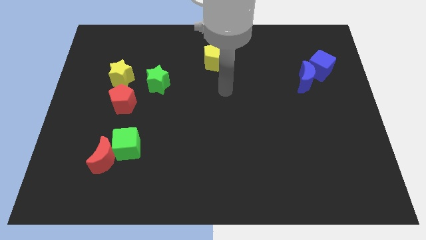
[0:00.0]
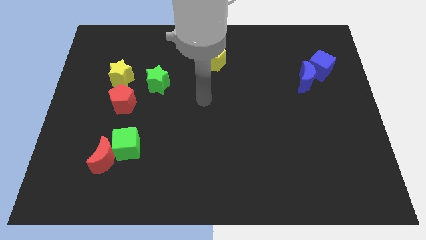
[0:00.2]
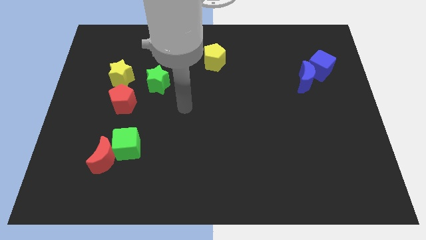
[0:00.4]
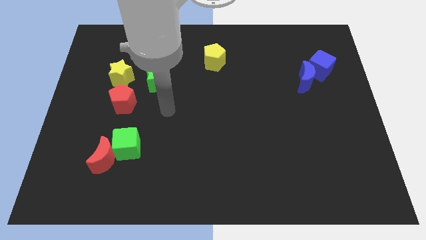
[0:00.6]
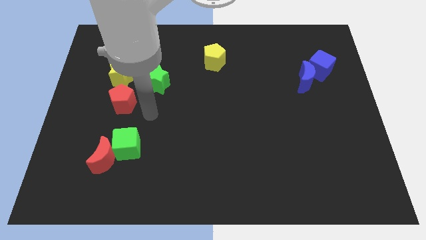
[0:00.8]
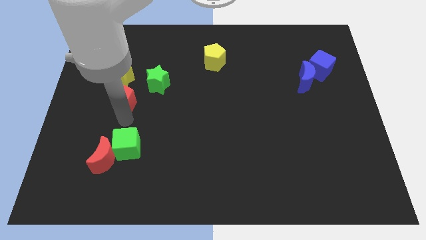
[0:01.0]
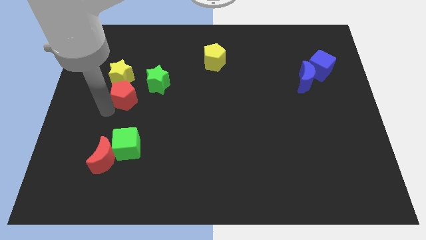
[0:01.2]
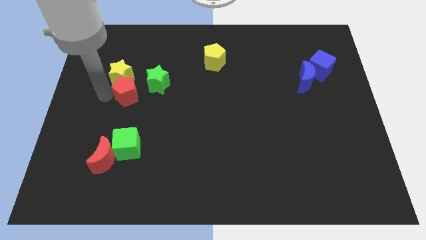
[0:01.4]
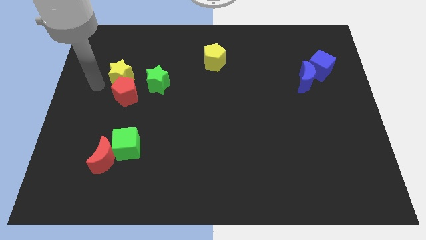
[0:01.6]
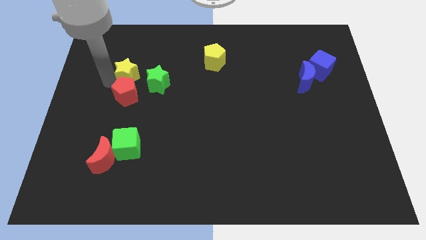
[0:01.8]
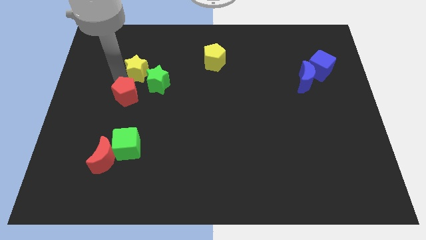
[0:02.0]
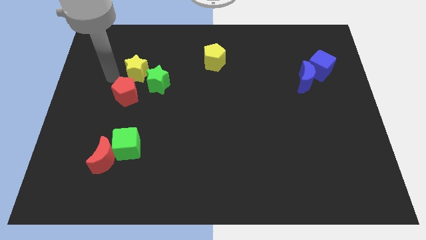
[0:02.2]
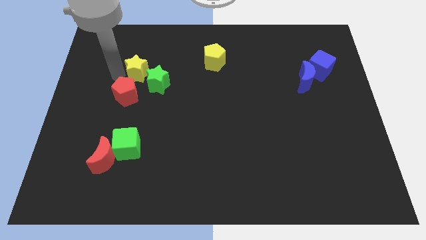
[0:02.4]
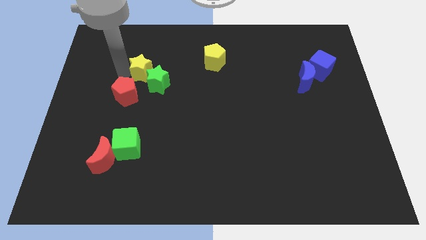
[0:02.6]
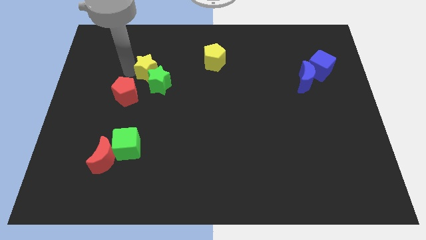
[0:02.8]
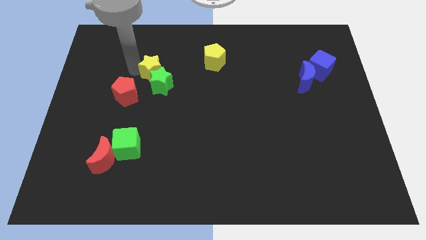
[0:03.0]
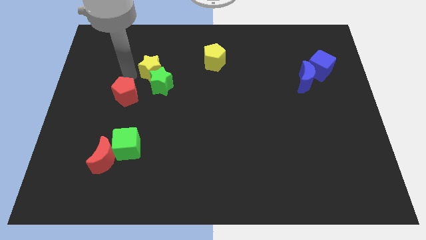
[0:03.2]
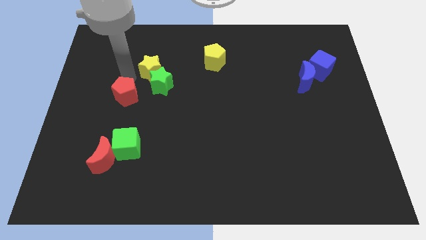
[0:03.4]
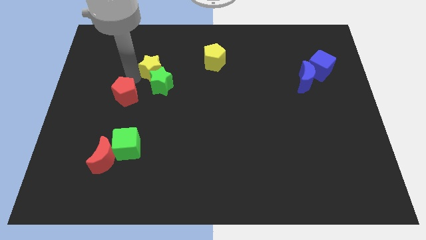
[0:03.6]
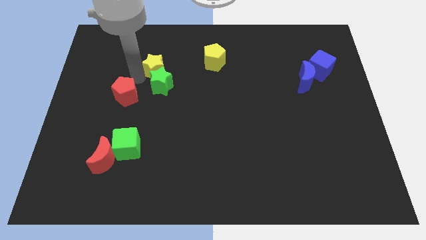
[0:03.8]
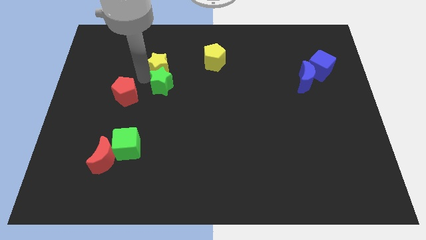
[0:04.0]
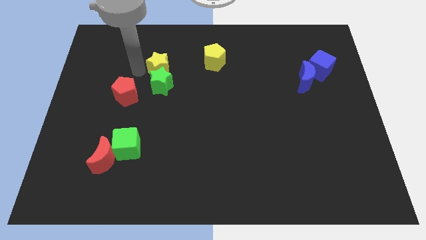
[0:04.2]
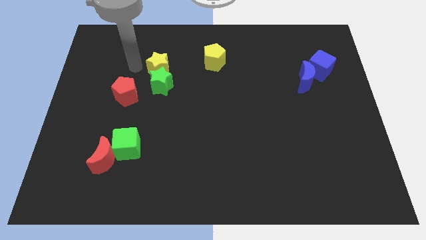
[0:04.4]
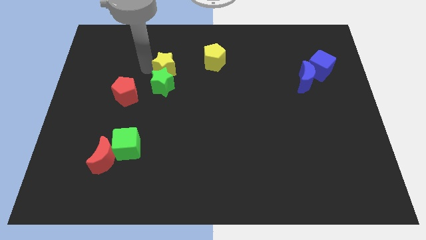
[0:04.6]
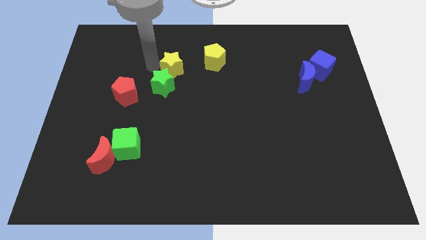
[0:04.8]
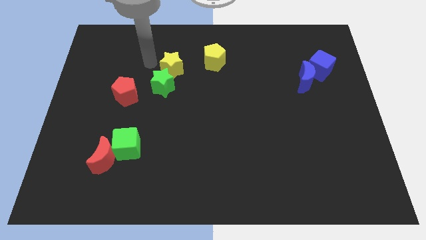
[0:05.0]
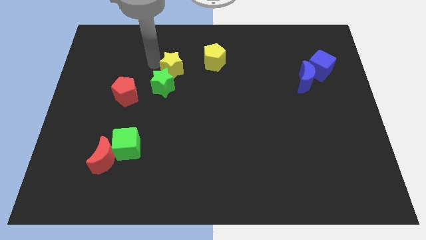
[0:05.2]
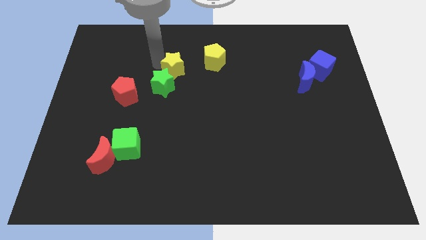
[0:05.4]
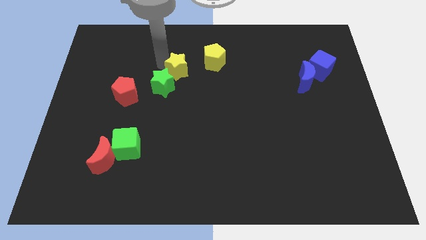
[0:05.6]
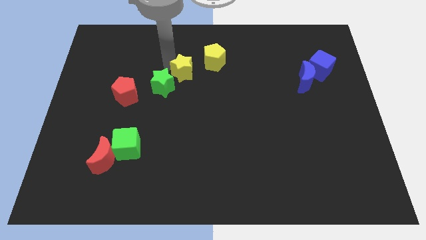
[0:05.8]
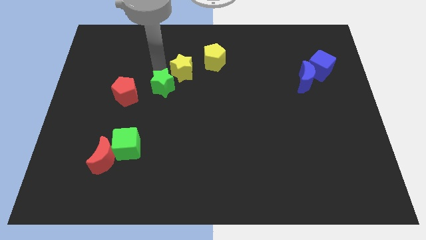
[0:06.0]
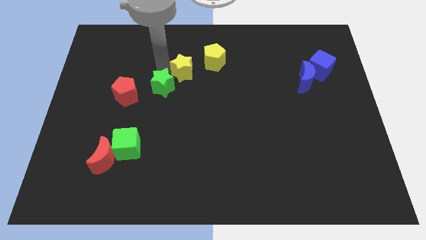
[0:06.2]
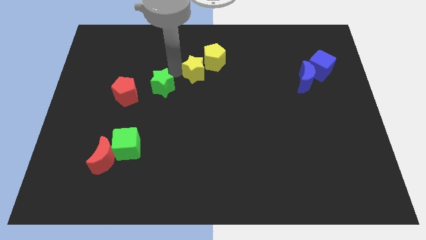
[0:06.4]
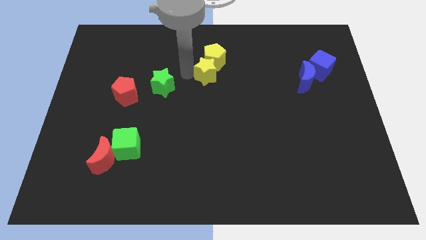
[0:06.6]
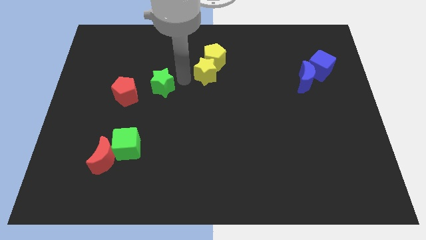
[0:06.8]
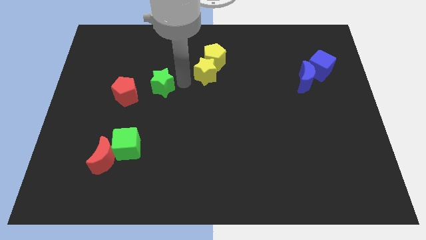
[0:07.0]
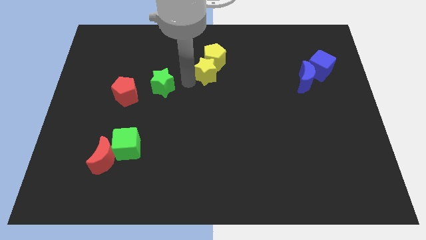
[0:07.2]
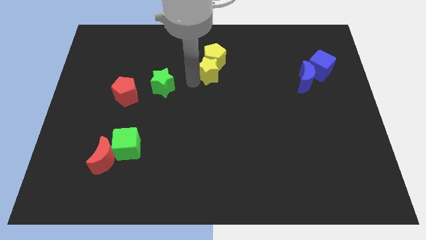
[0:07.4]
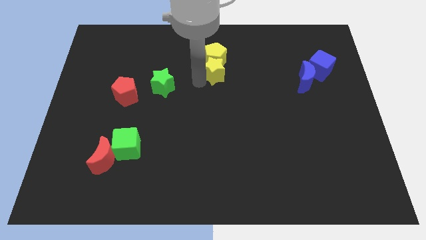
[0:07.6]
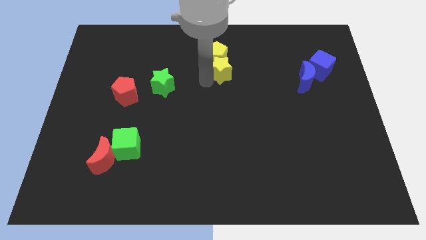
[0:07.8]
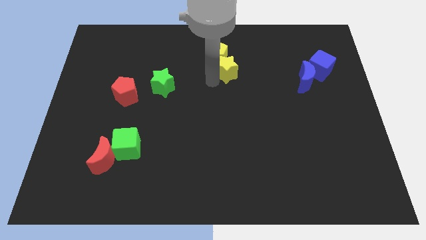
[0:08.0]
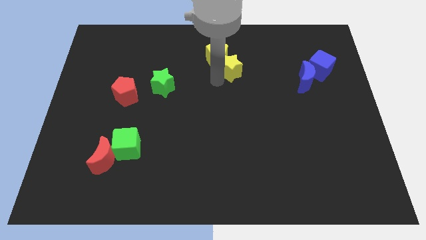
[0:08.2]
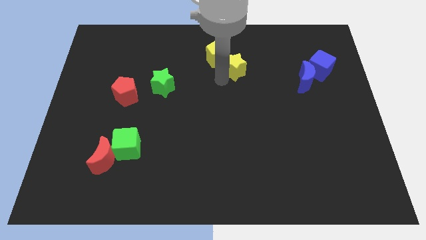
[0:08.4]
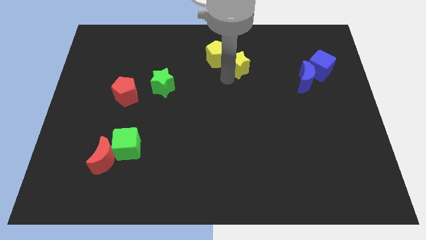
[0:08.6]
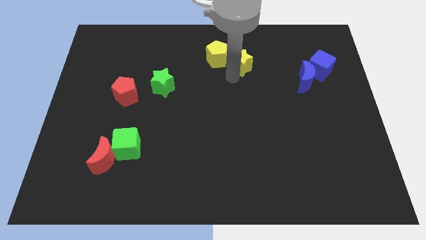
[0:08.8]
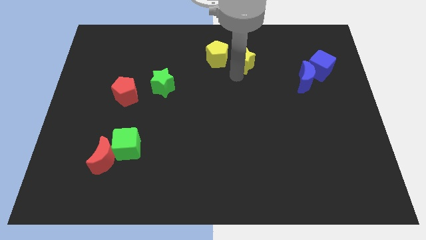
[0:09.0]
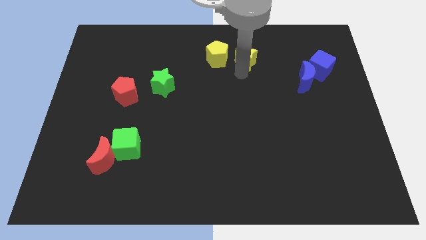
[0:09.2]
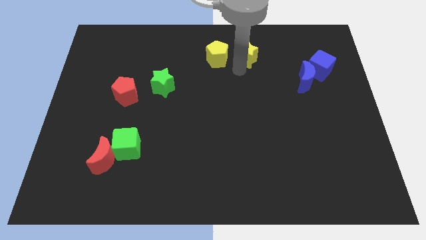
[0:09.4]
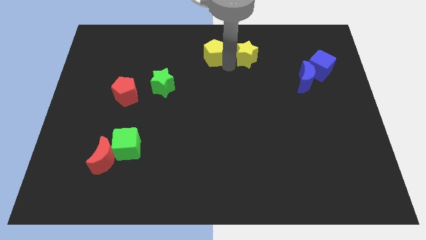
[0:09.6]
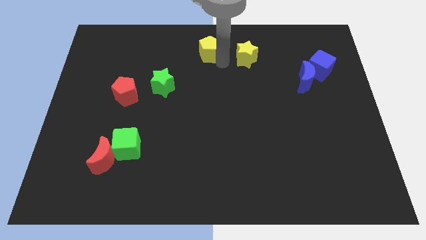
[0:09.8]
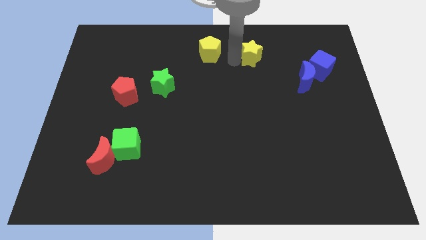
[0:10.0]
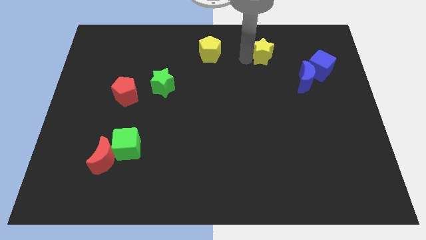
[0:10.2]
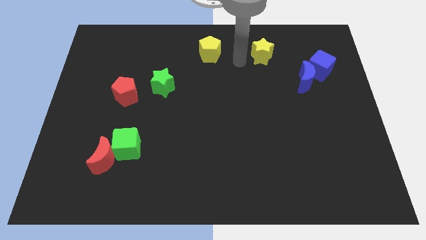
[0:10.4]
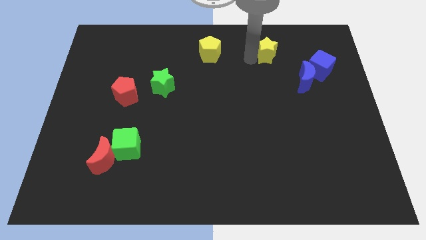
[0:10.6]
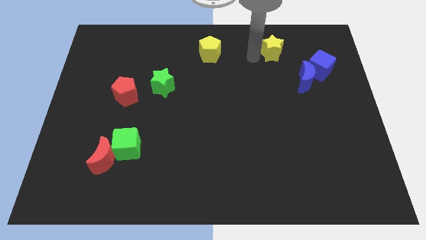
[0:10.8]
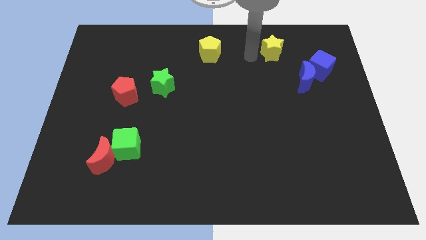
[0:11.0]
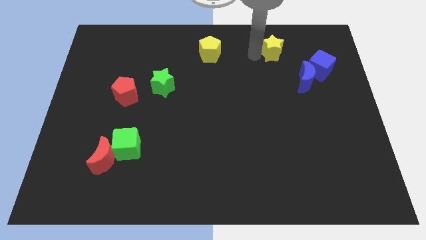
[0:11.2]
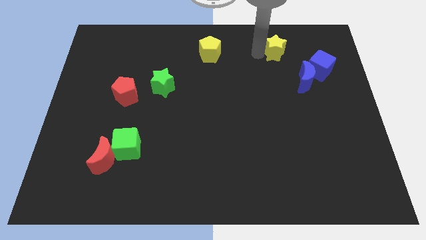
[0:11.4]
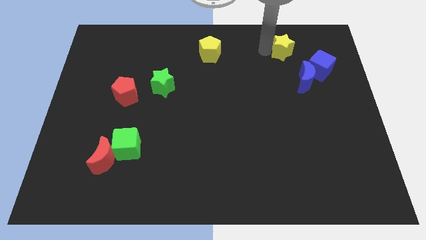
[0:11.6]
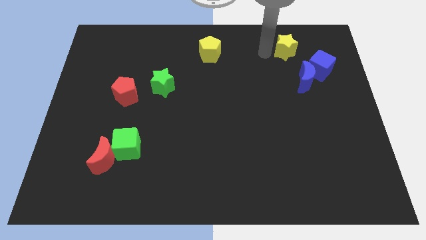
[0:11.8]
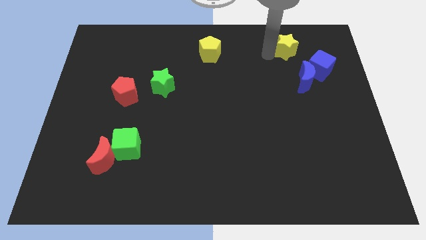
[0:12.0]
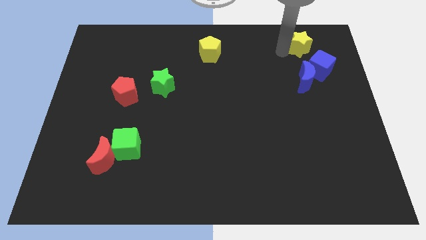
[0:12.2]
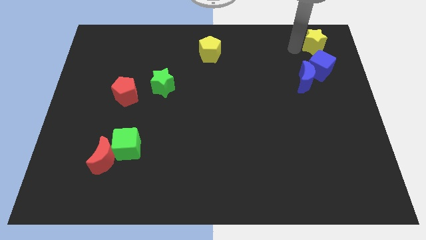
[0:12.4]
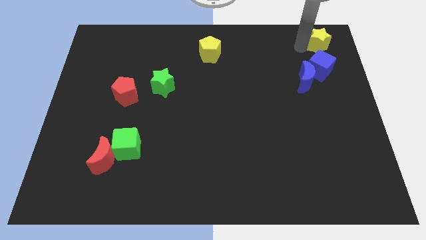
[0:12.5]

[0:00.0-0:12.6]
slide the yellow star to the top right of the board
